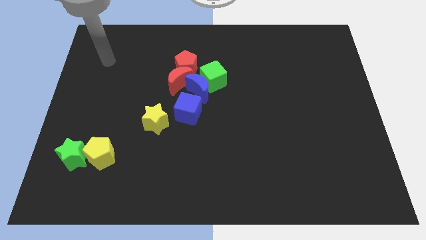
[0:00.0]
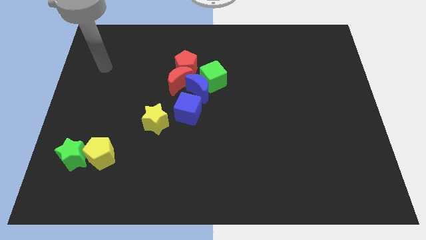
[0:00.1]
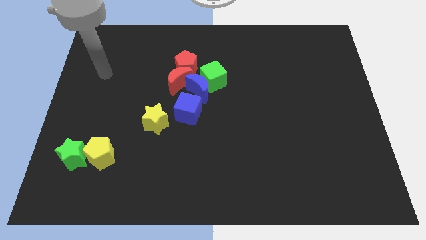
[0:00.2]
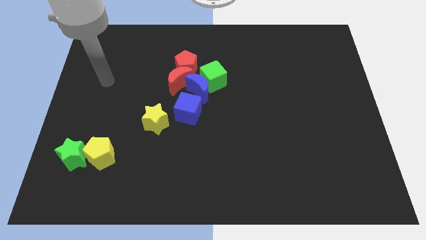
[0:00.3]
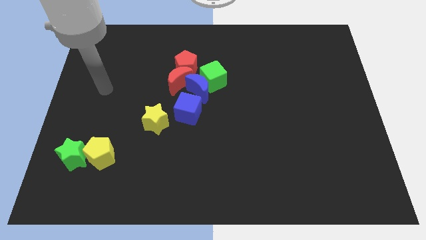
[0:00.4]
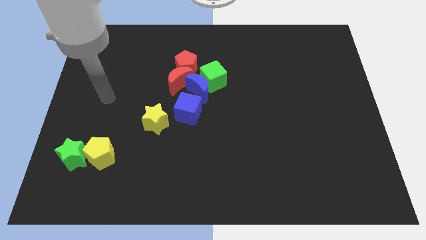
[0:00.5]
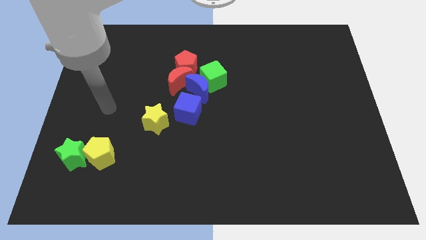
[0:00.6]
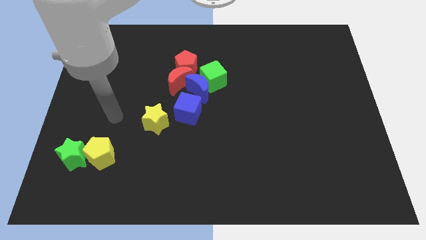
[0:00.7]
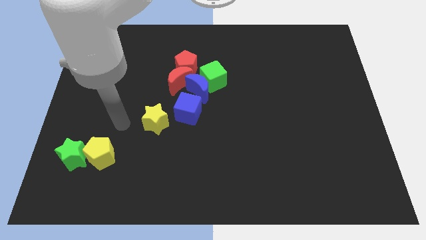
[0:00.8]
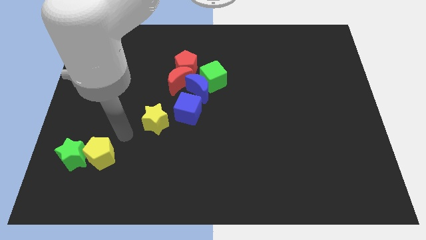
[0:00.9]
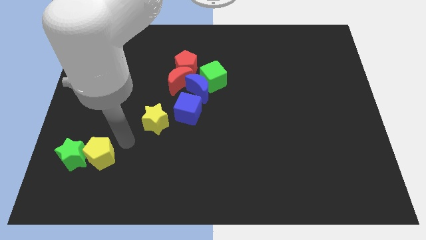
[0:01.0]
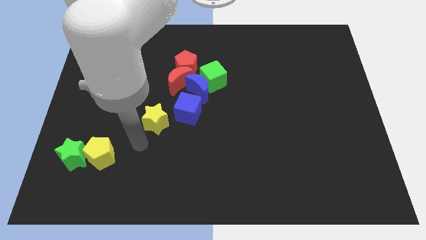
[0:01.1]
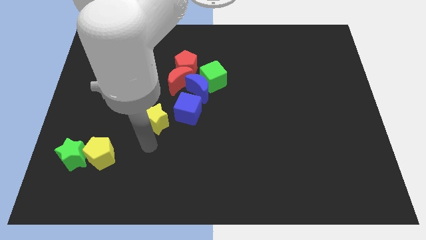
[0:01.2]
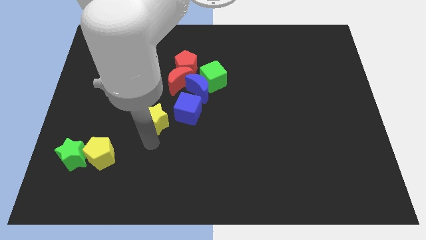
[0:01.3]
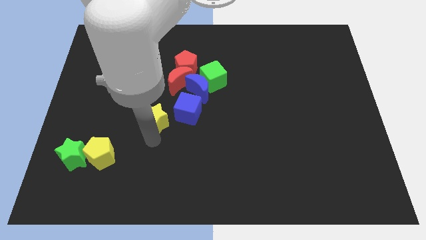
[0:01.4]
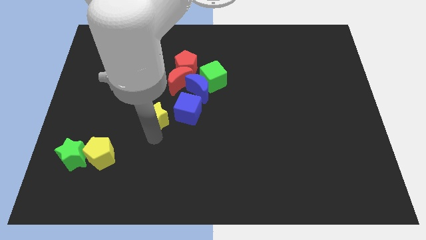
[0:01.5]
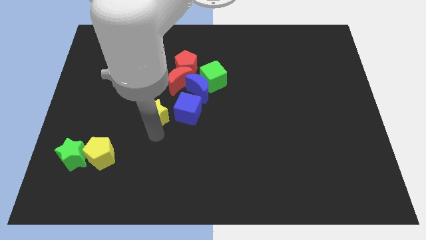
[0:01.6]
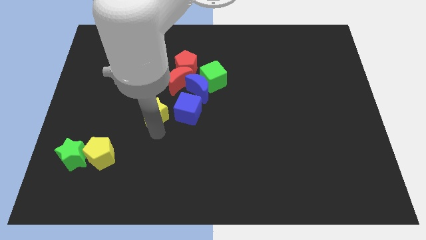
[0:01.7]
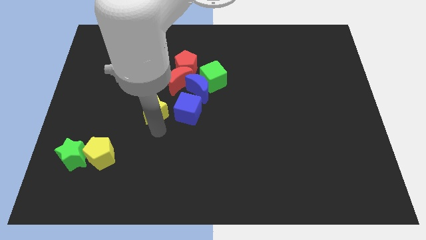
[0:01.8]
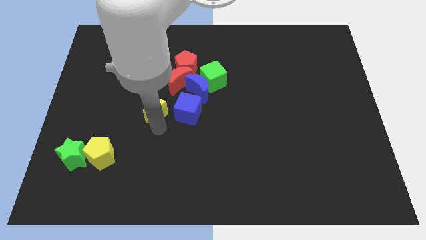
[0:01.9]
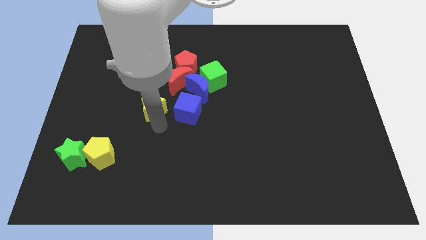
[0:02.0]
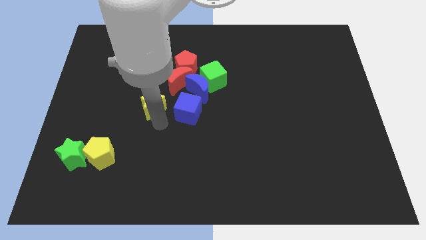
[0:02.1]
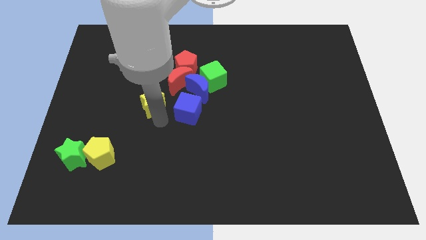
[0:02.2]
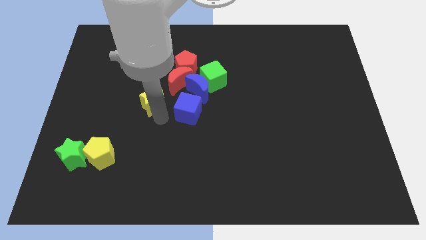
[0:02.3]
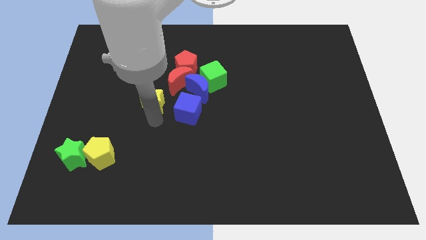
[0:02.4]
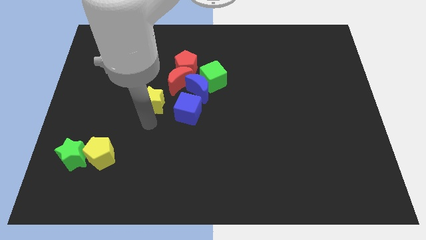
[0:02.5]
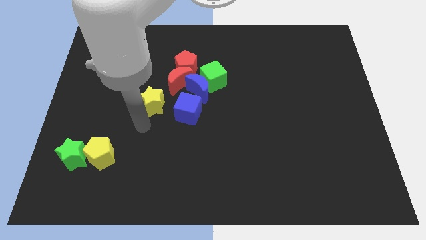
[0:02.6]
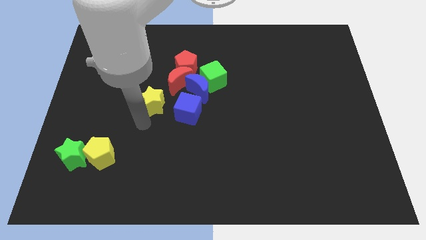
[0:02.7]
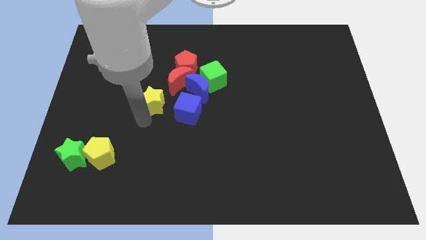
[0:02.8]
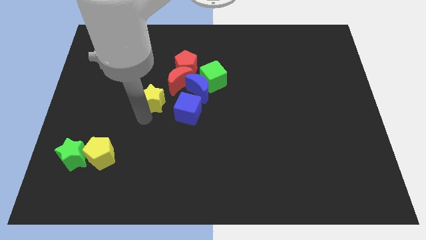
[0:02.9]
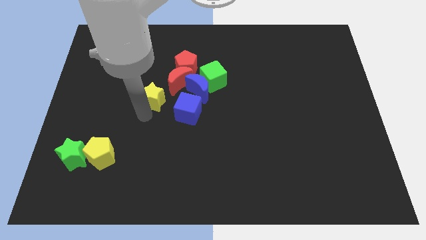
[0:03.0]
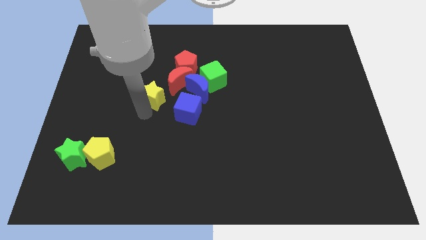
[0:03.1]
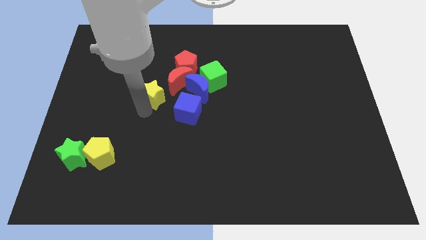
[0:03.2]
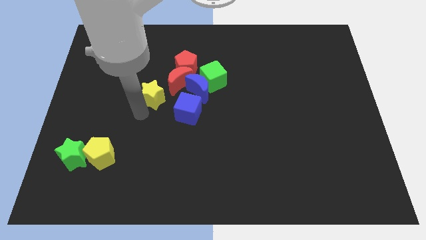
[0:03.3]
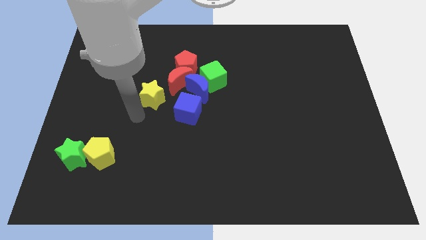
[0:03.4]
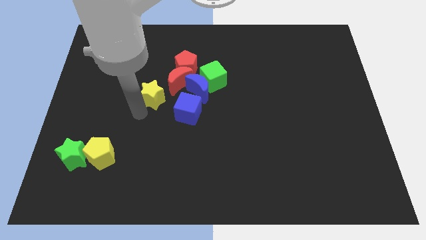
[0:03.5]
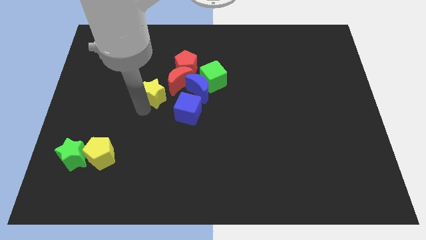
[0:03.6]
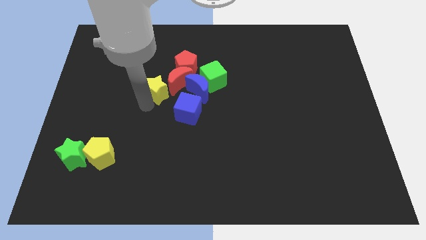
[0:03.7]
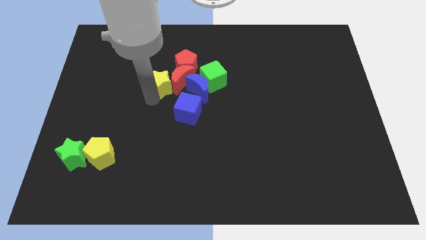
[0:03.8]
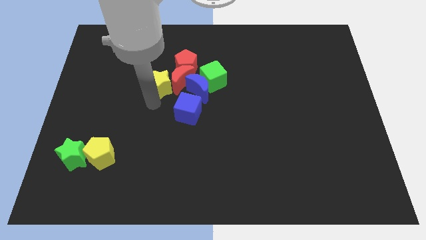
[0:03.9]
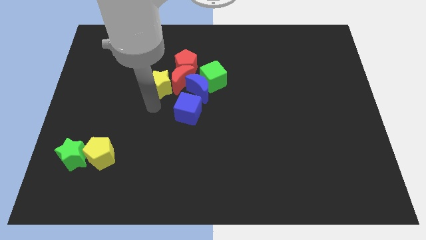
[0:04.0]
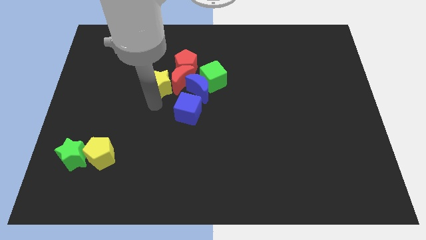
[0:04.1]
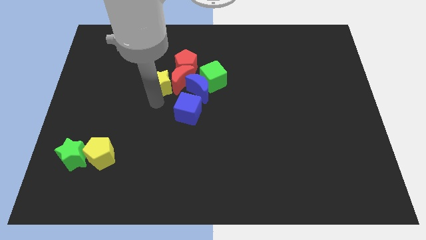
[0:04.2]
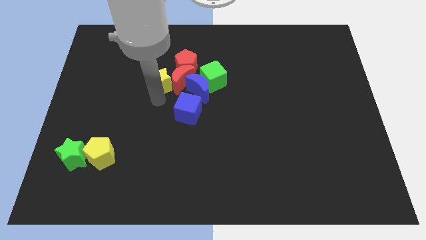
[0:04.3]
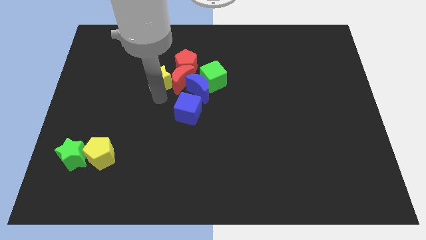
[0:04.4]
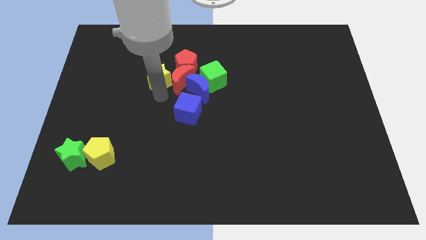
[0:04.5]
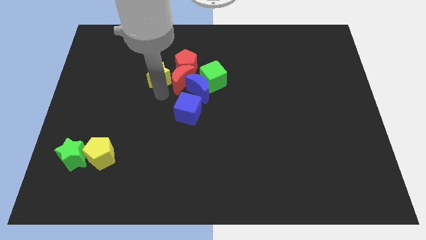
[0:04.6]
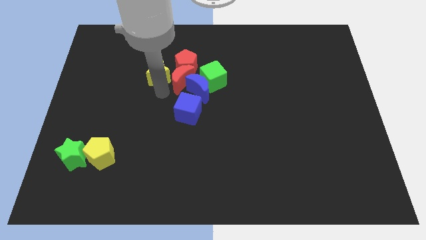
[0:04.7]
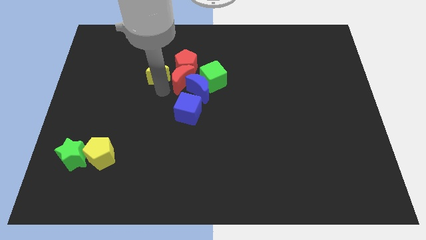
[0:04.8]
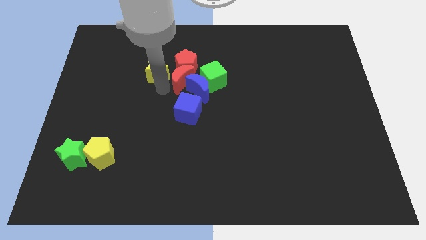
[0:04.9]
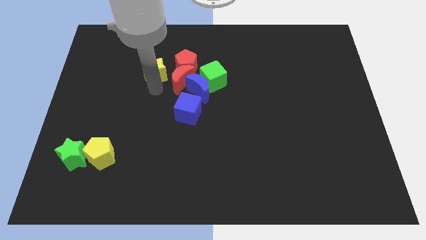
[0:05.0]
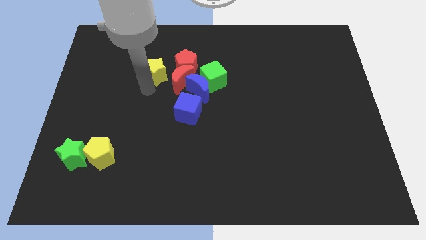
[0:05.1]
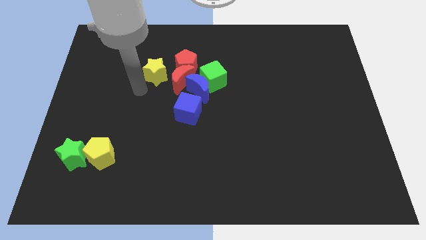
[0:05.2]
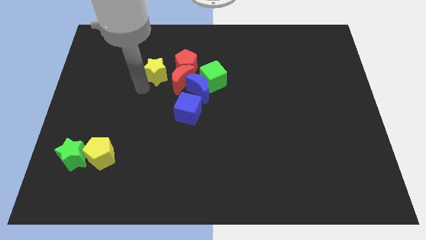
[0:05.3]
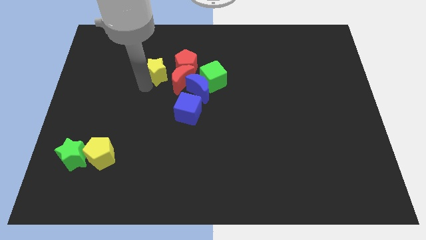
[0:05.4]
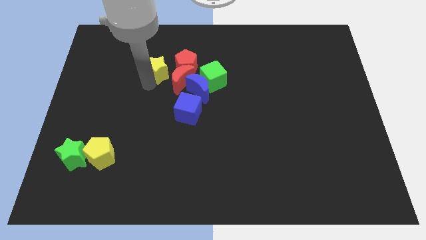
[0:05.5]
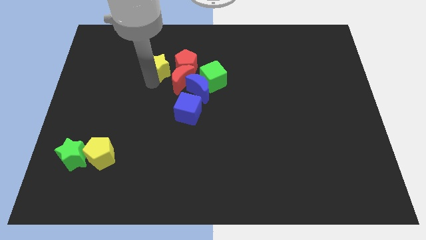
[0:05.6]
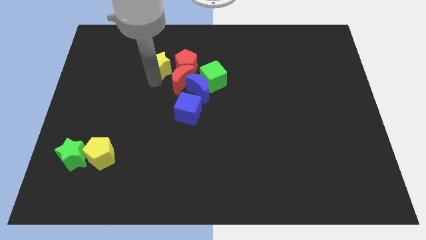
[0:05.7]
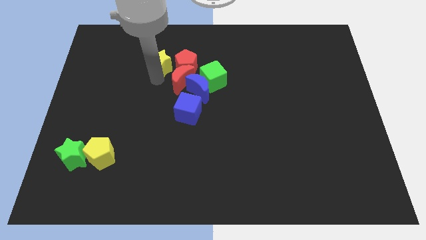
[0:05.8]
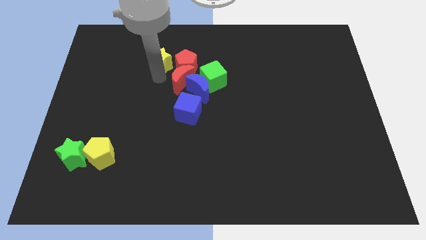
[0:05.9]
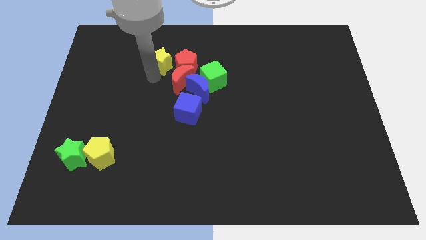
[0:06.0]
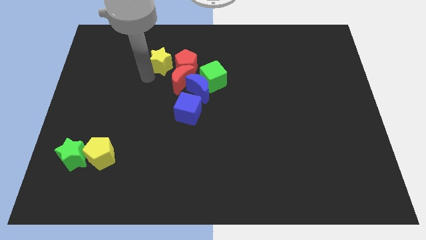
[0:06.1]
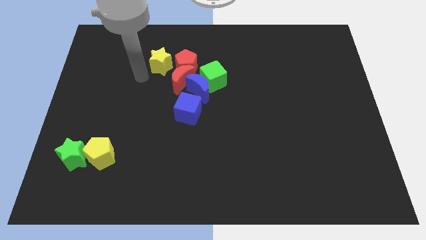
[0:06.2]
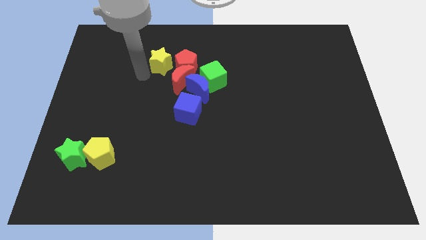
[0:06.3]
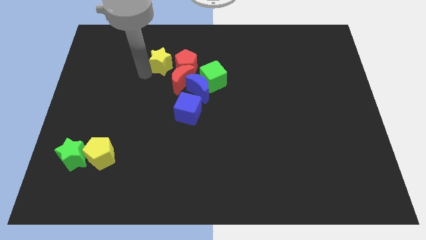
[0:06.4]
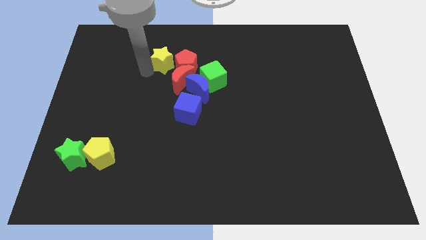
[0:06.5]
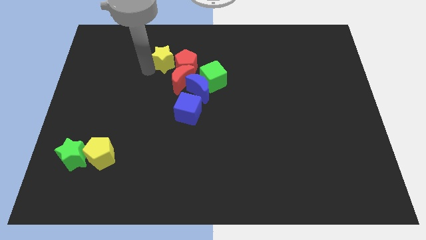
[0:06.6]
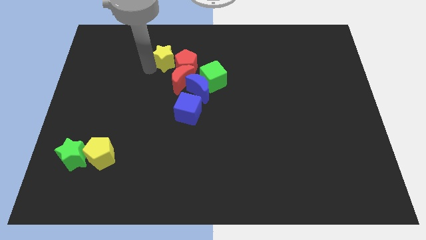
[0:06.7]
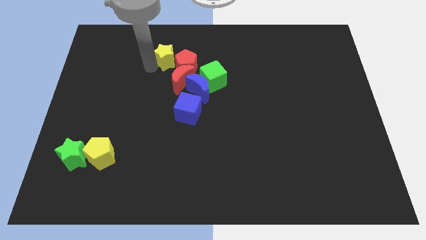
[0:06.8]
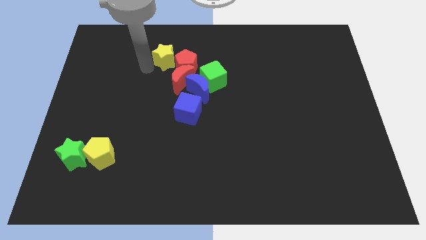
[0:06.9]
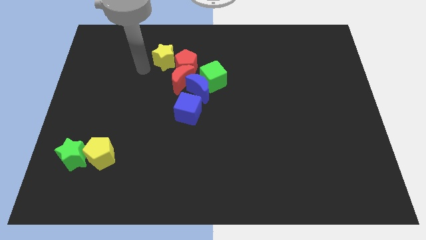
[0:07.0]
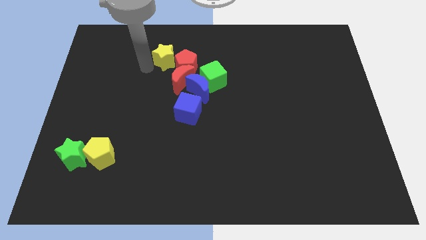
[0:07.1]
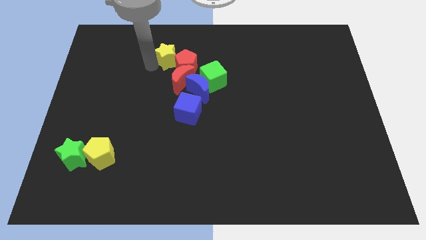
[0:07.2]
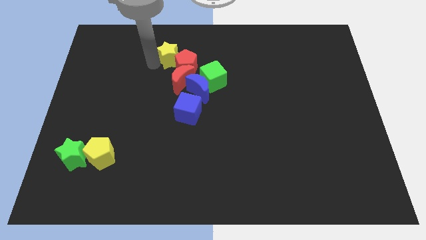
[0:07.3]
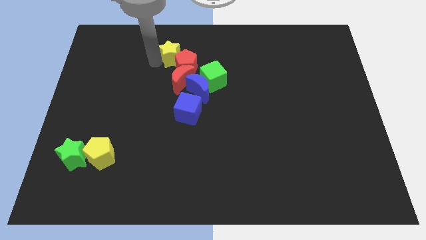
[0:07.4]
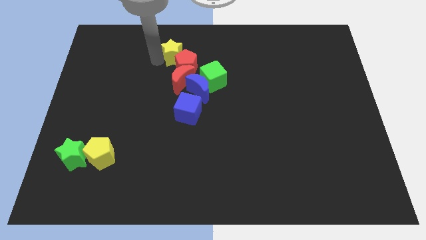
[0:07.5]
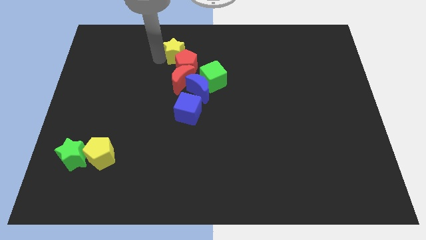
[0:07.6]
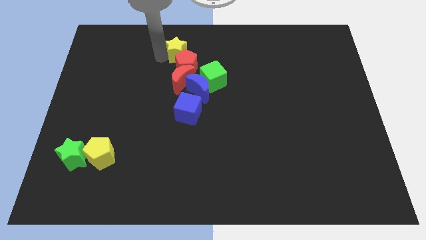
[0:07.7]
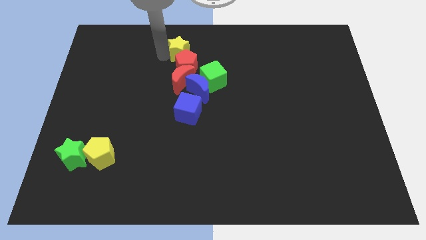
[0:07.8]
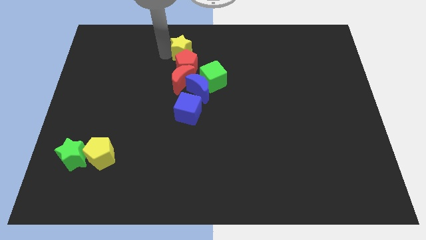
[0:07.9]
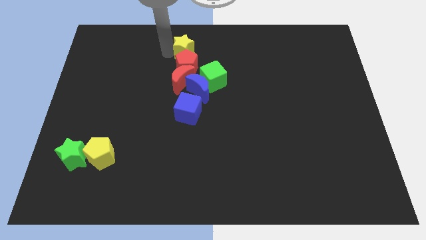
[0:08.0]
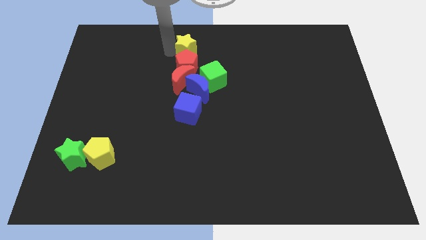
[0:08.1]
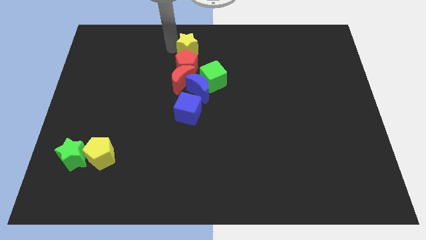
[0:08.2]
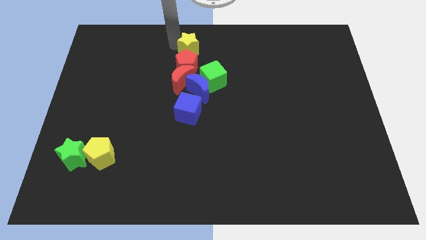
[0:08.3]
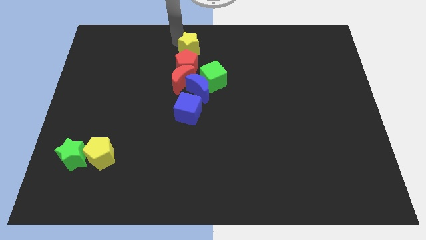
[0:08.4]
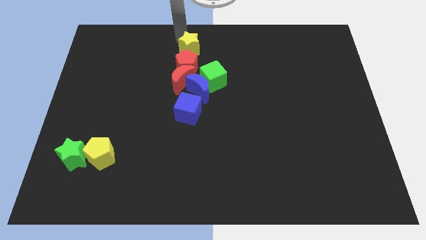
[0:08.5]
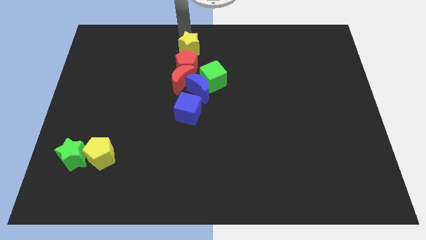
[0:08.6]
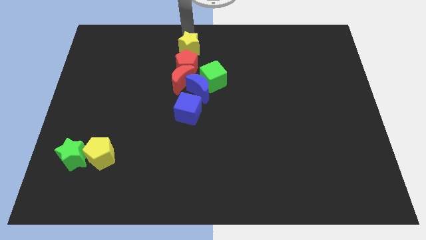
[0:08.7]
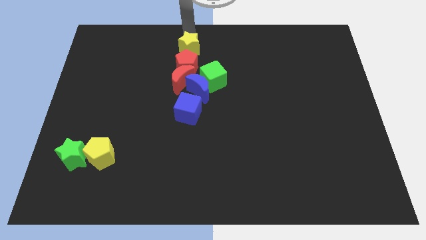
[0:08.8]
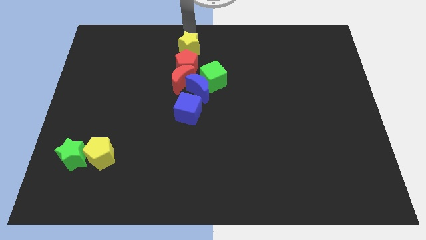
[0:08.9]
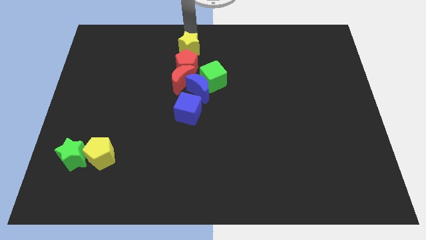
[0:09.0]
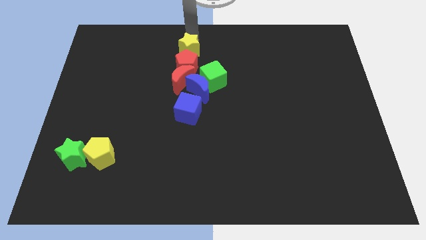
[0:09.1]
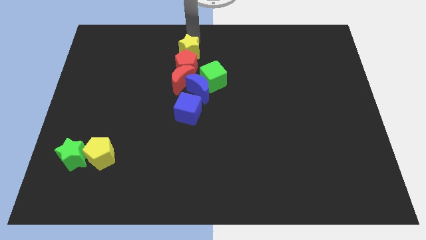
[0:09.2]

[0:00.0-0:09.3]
slide the yellow star diagonally up and to the left of the green cube
